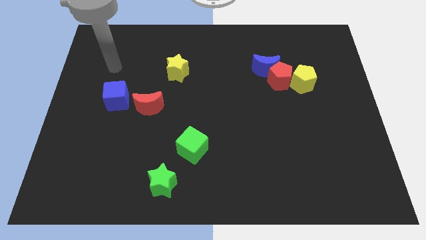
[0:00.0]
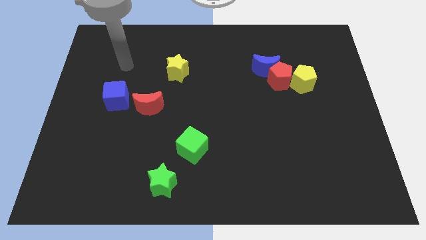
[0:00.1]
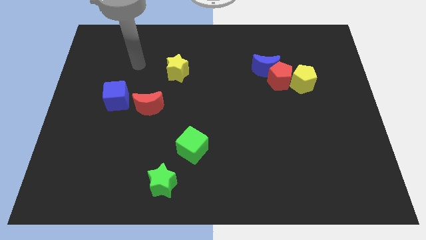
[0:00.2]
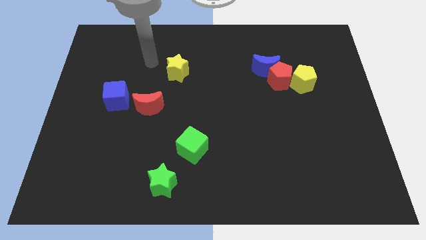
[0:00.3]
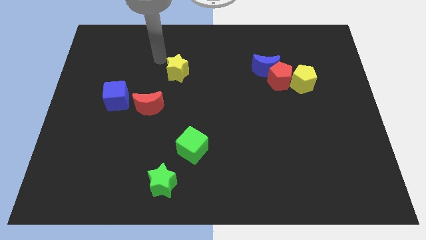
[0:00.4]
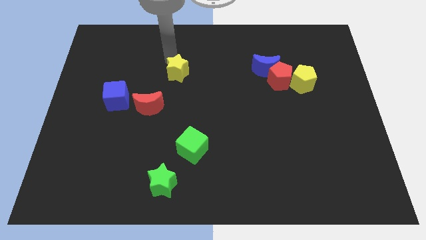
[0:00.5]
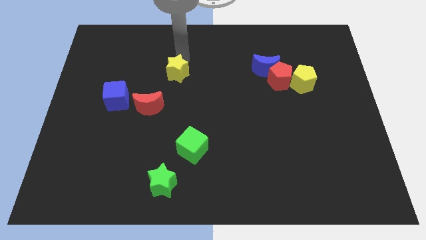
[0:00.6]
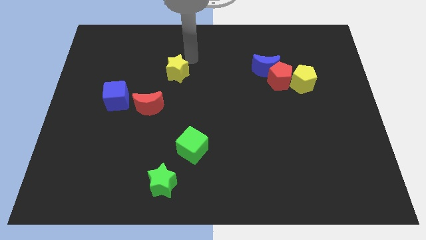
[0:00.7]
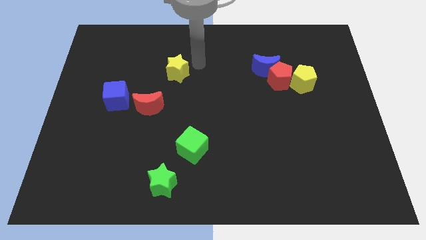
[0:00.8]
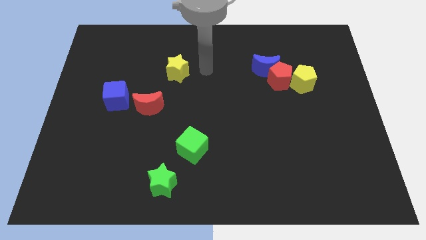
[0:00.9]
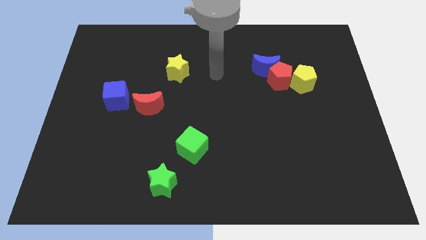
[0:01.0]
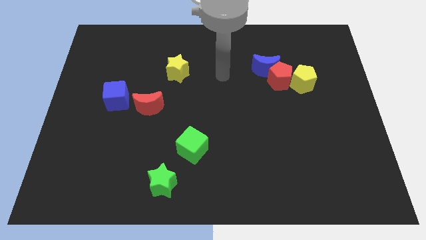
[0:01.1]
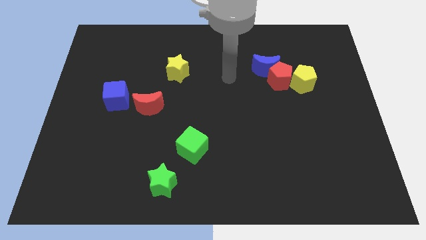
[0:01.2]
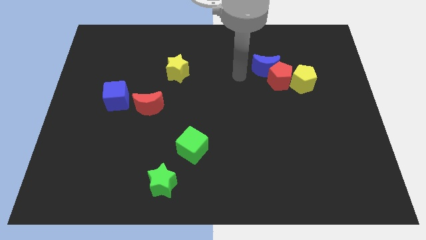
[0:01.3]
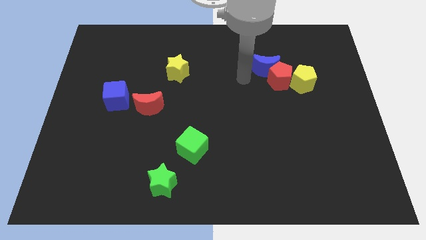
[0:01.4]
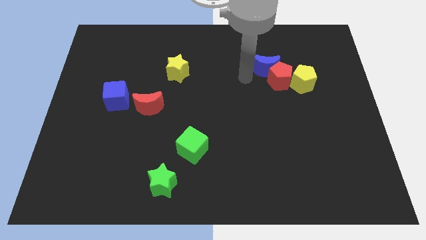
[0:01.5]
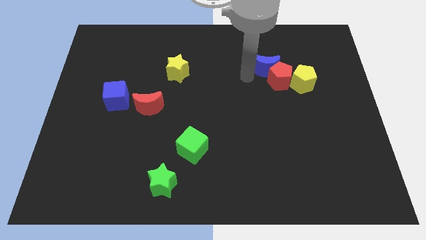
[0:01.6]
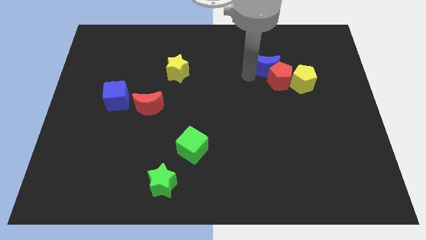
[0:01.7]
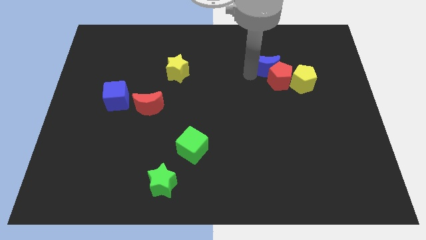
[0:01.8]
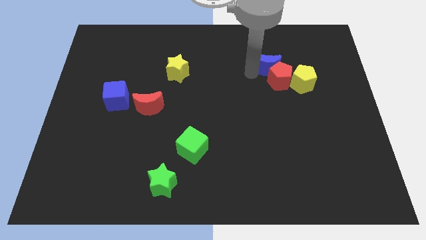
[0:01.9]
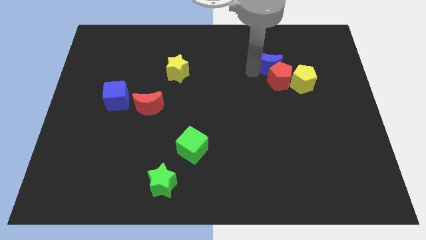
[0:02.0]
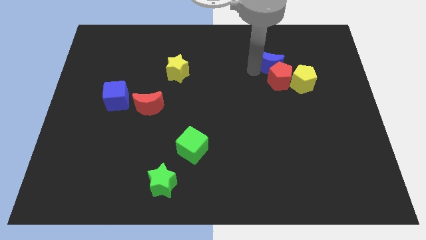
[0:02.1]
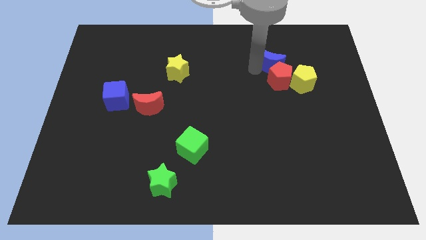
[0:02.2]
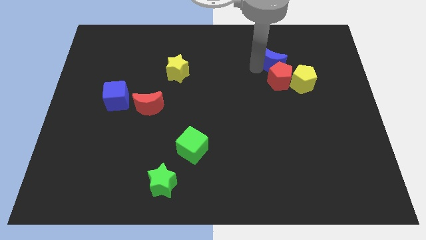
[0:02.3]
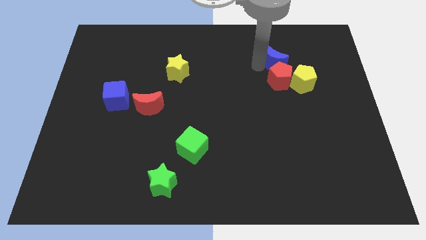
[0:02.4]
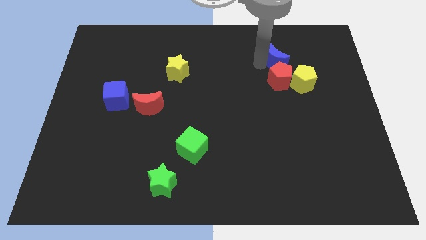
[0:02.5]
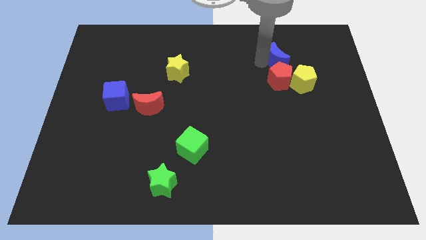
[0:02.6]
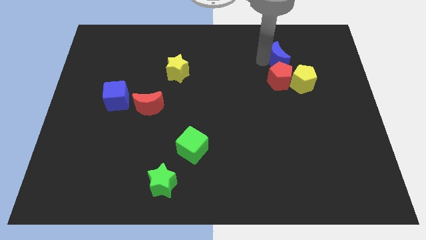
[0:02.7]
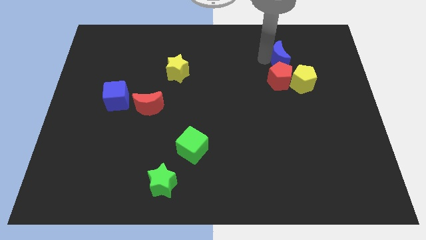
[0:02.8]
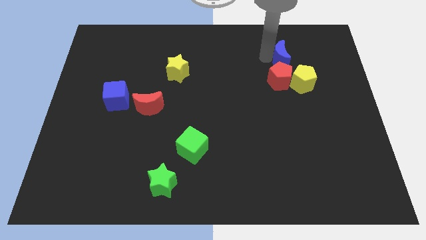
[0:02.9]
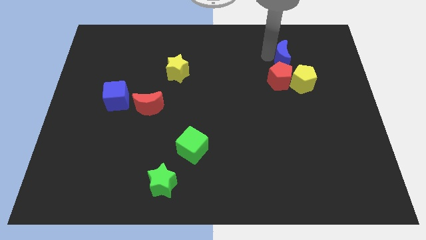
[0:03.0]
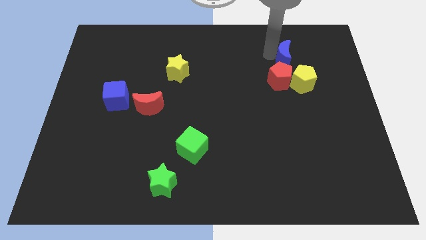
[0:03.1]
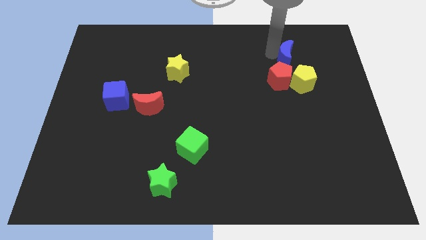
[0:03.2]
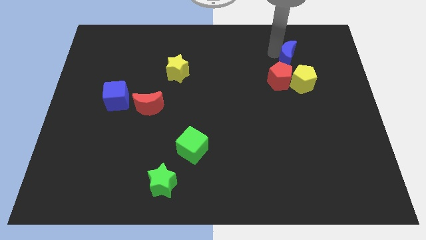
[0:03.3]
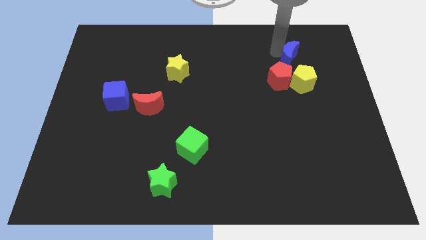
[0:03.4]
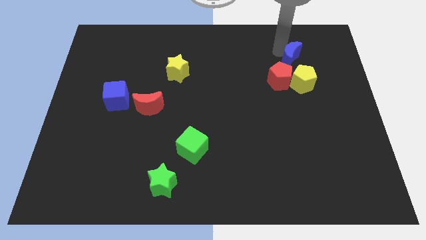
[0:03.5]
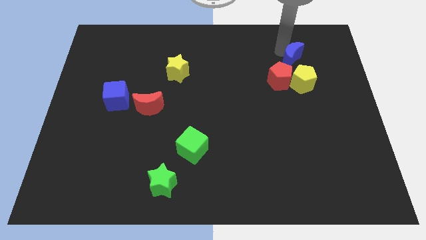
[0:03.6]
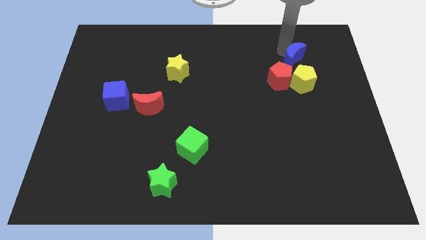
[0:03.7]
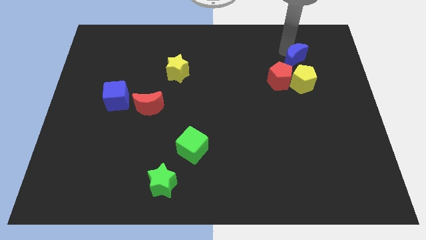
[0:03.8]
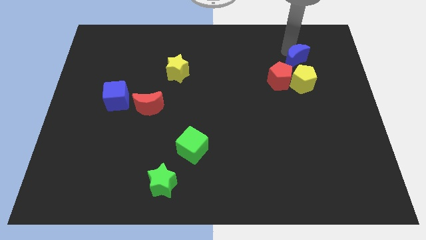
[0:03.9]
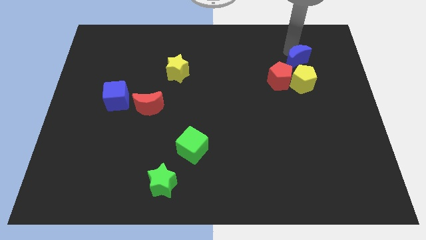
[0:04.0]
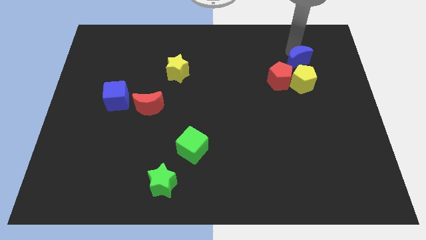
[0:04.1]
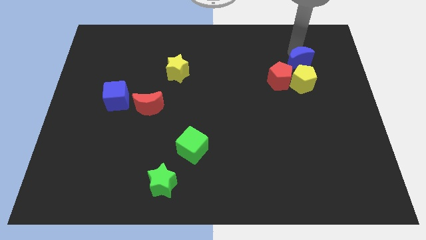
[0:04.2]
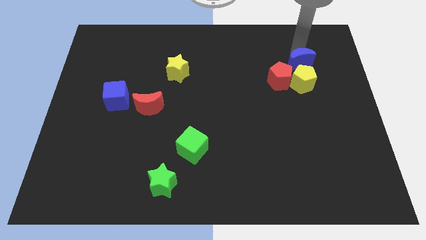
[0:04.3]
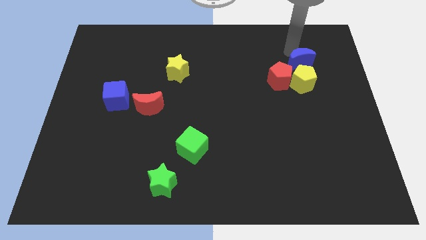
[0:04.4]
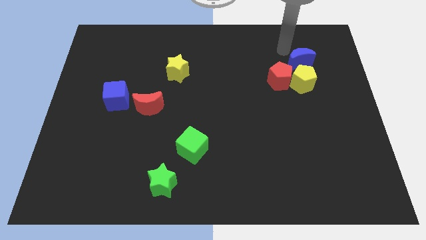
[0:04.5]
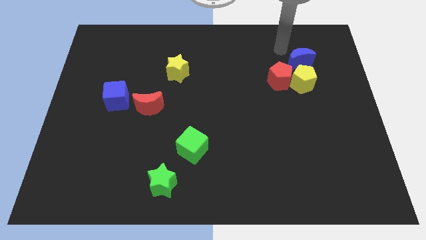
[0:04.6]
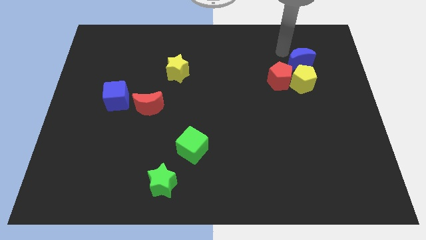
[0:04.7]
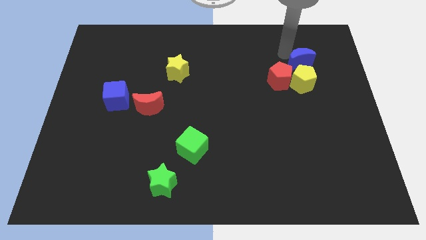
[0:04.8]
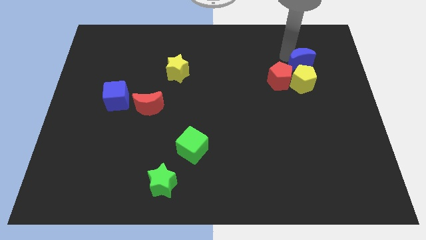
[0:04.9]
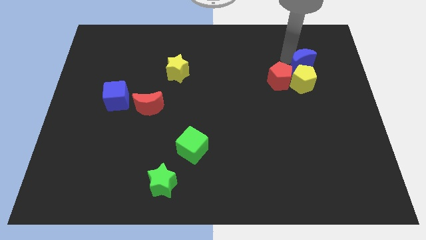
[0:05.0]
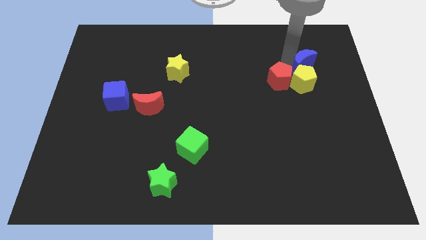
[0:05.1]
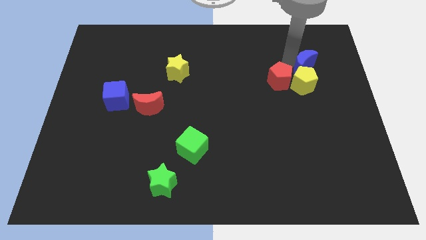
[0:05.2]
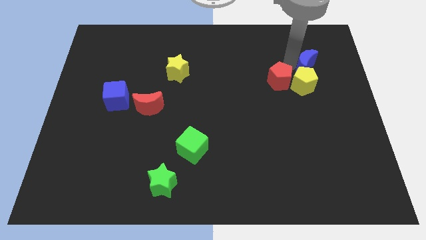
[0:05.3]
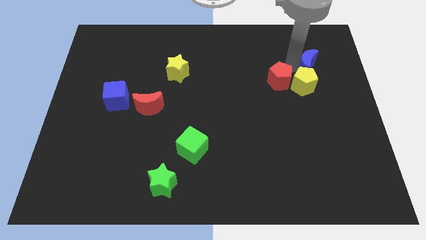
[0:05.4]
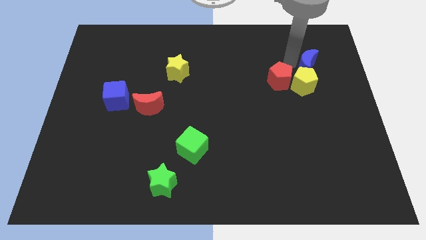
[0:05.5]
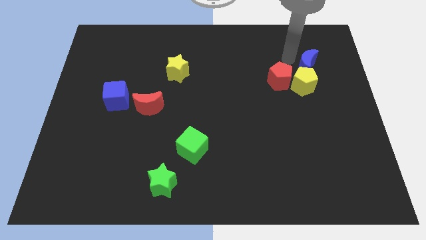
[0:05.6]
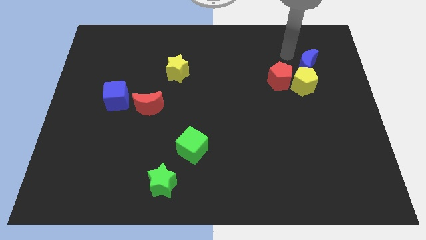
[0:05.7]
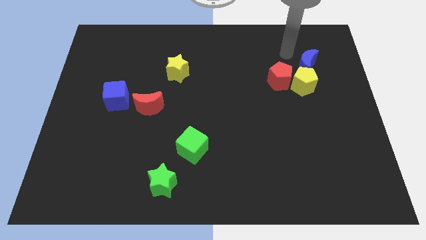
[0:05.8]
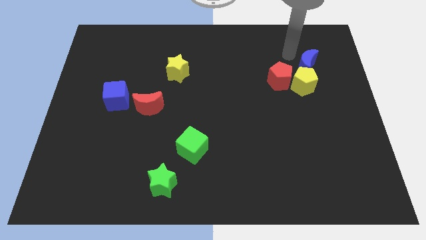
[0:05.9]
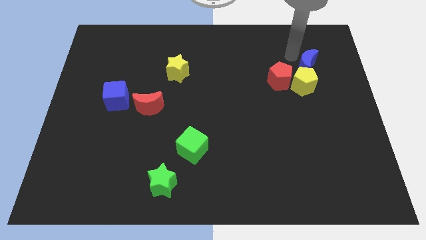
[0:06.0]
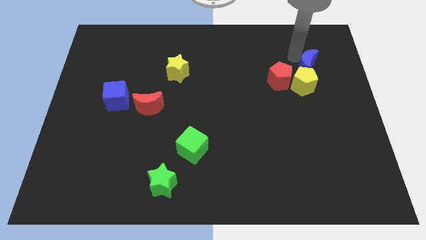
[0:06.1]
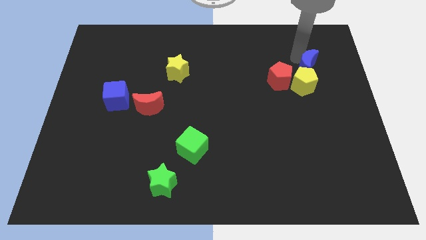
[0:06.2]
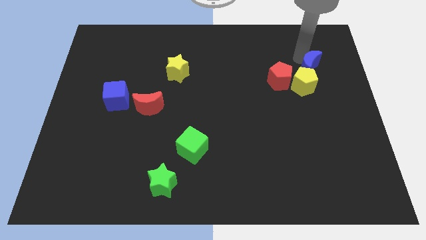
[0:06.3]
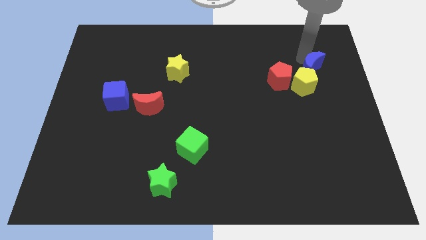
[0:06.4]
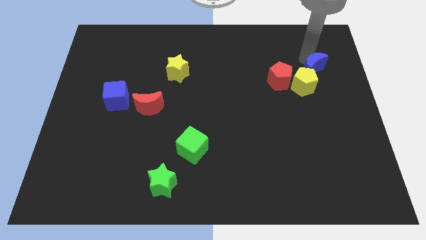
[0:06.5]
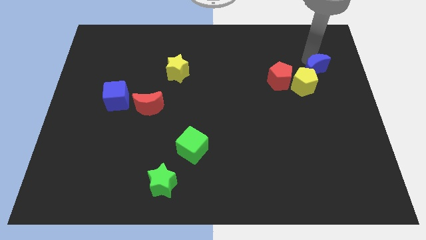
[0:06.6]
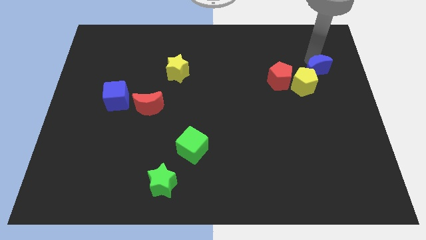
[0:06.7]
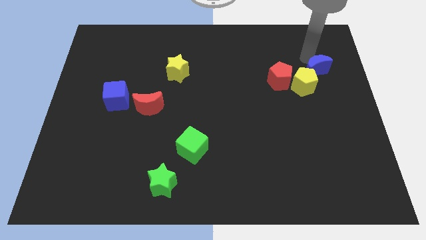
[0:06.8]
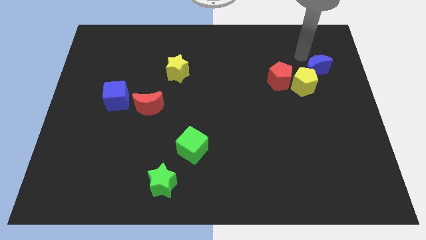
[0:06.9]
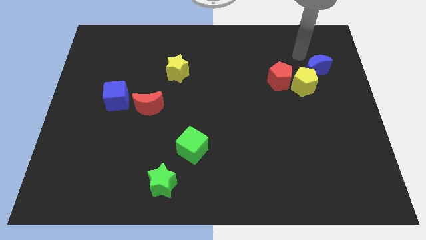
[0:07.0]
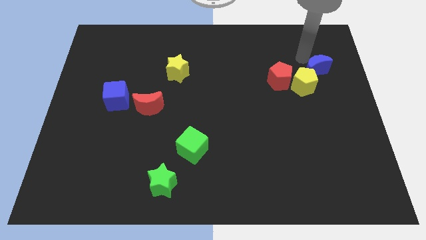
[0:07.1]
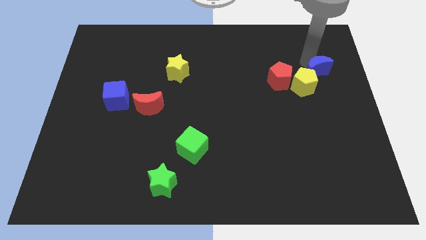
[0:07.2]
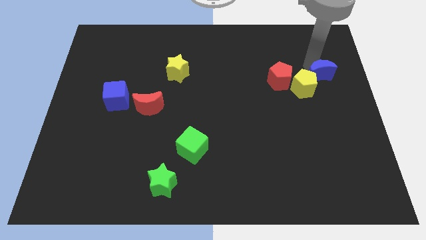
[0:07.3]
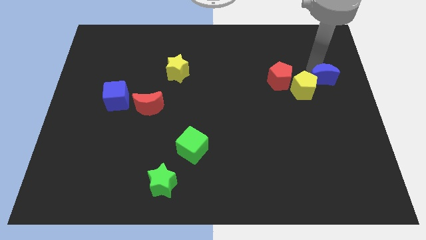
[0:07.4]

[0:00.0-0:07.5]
slide the blue moon to the center right
